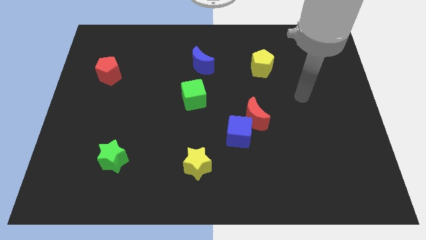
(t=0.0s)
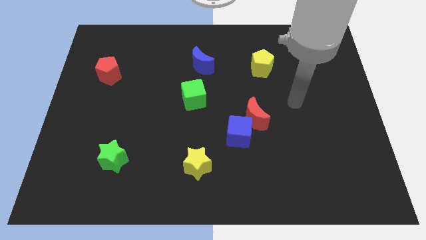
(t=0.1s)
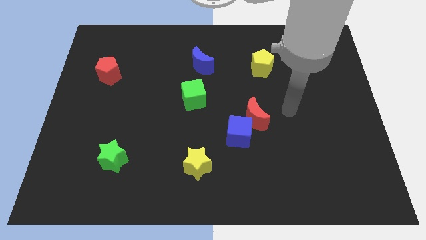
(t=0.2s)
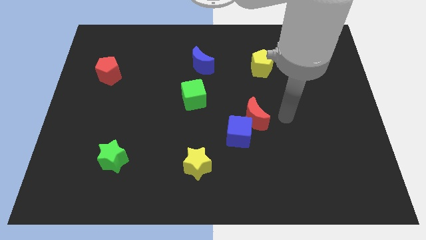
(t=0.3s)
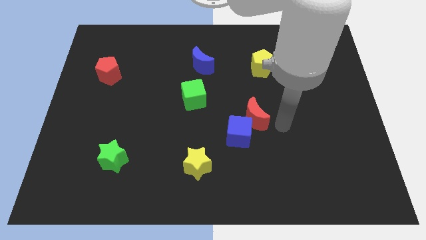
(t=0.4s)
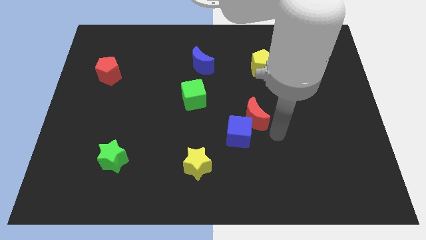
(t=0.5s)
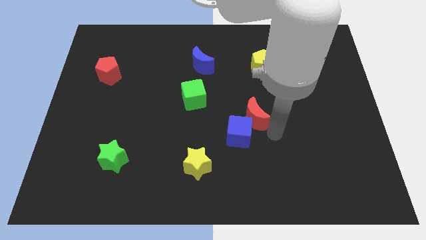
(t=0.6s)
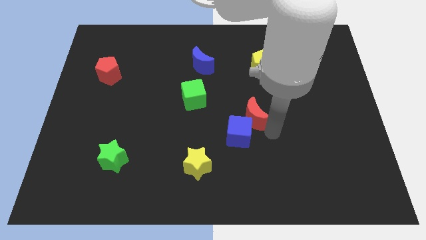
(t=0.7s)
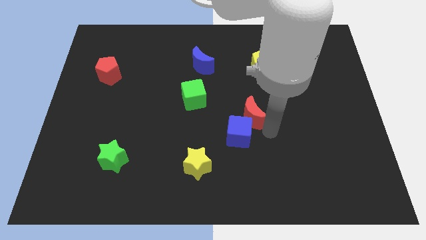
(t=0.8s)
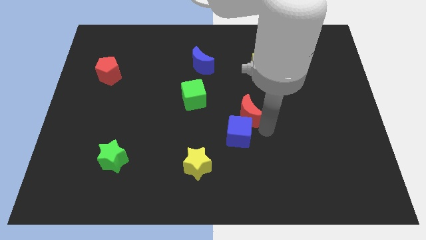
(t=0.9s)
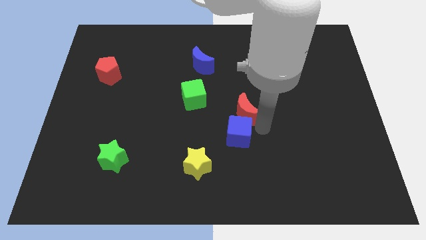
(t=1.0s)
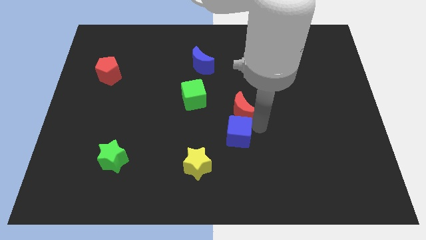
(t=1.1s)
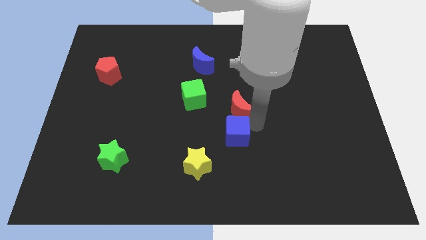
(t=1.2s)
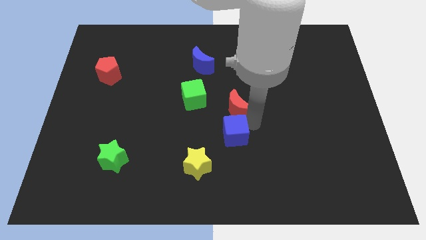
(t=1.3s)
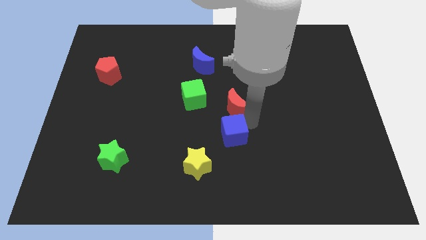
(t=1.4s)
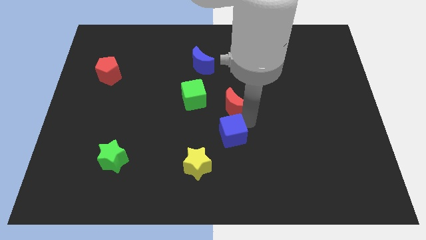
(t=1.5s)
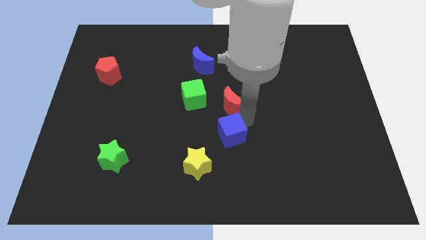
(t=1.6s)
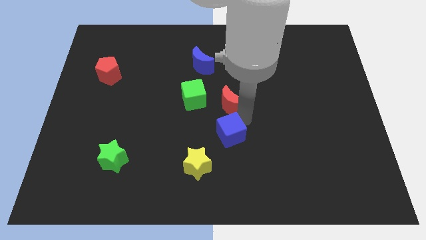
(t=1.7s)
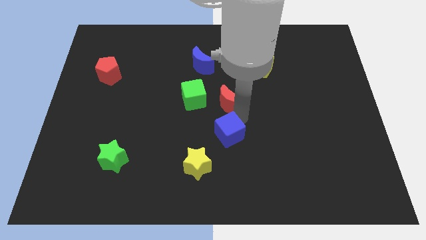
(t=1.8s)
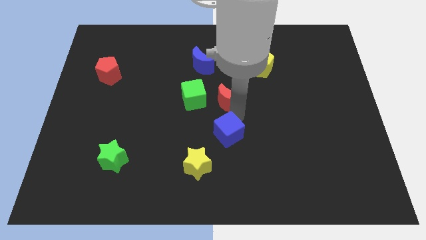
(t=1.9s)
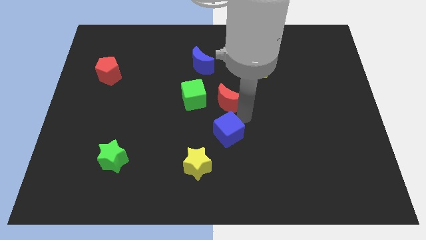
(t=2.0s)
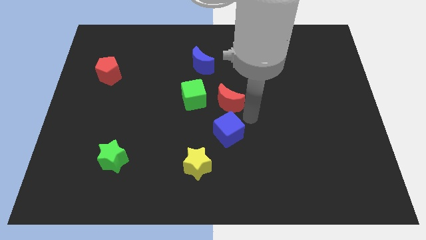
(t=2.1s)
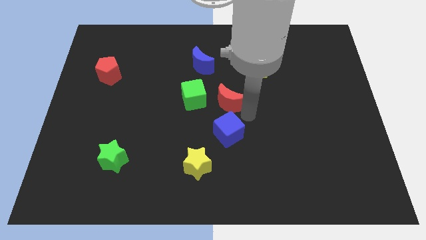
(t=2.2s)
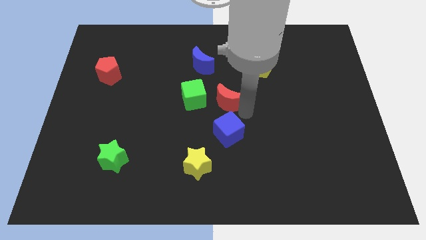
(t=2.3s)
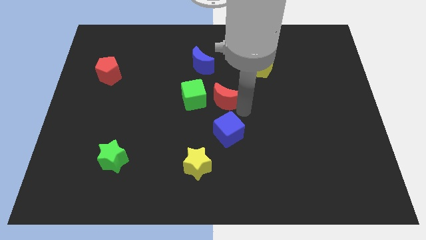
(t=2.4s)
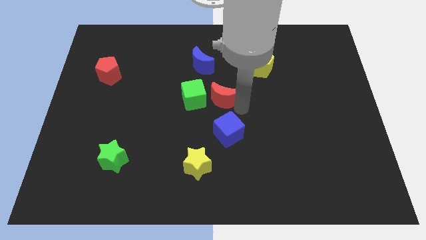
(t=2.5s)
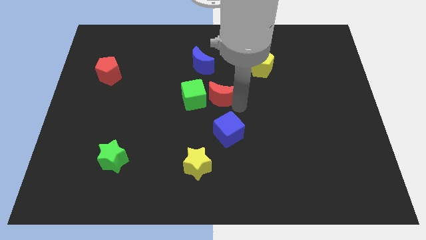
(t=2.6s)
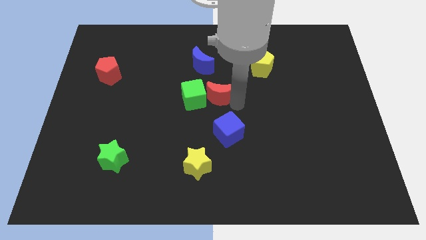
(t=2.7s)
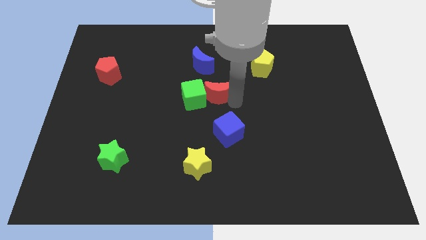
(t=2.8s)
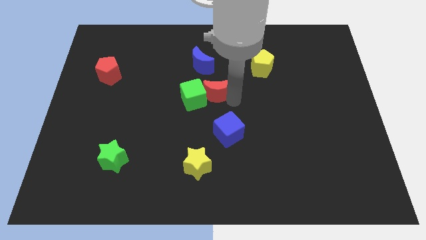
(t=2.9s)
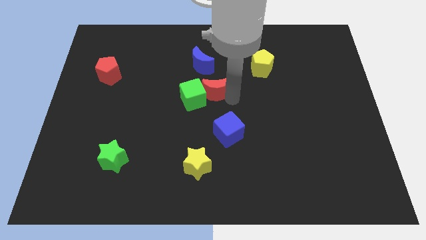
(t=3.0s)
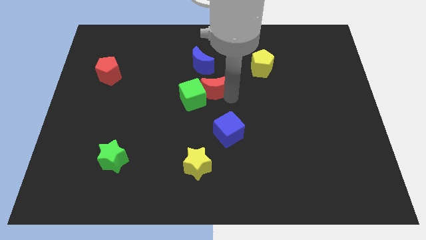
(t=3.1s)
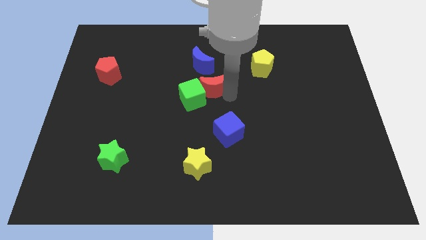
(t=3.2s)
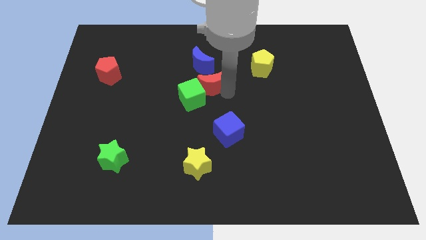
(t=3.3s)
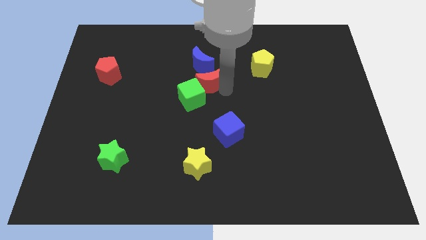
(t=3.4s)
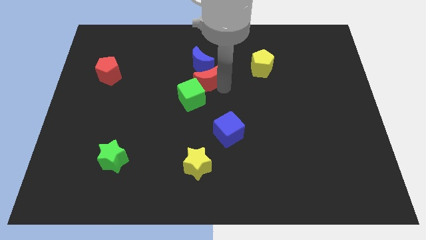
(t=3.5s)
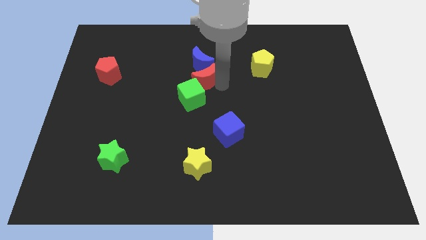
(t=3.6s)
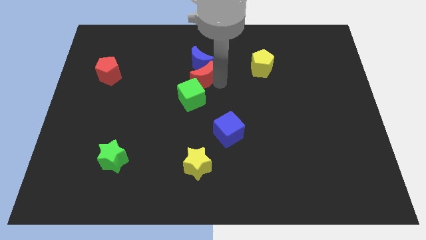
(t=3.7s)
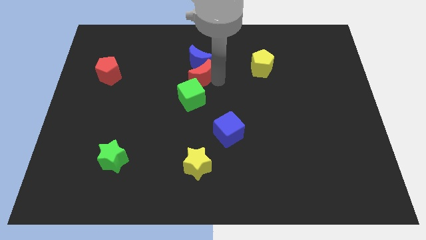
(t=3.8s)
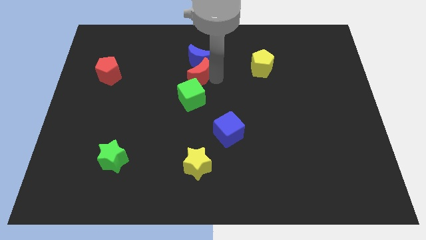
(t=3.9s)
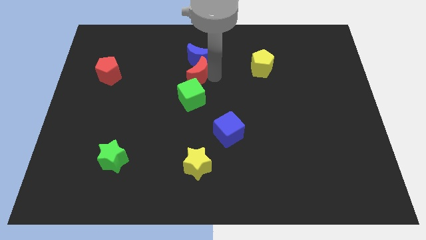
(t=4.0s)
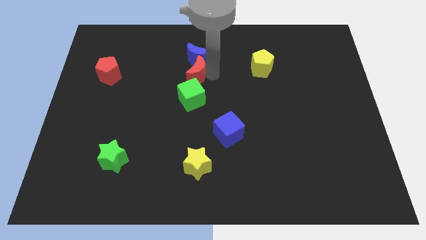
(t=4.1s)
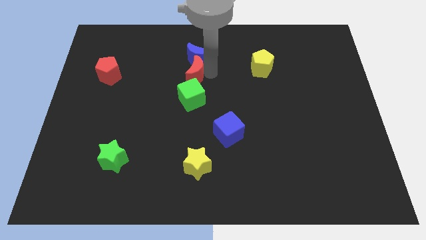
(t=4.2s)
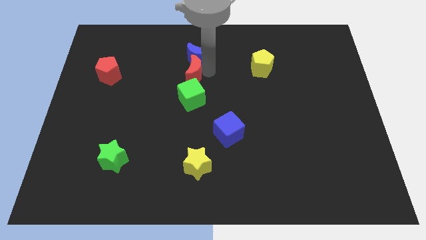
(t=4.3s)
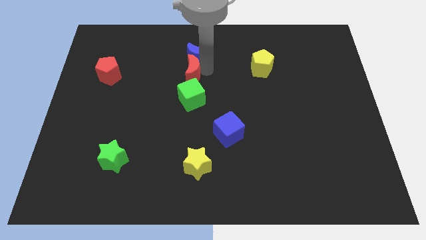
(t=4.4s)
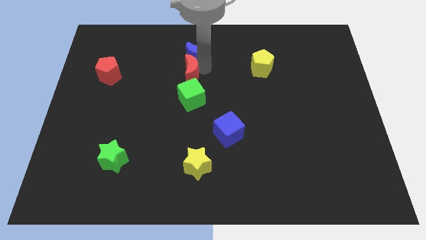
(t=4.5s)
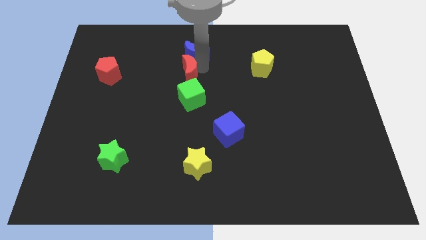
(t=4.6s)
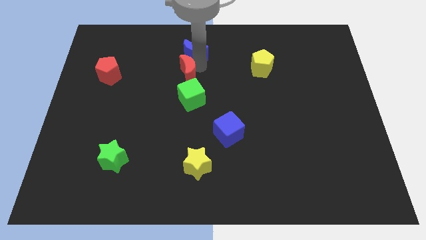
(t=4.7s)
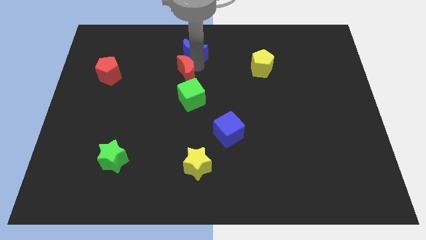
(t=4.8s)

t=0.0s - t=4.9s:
slide the red moon diagonally up and to the left of the green cube

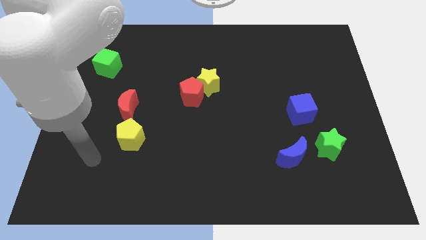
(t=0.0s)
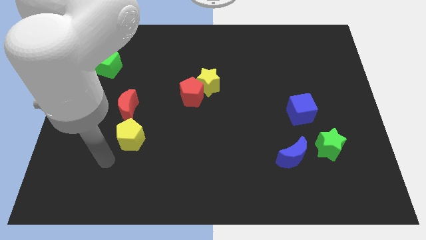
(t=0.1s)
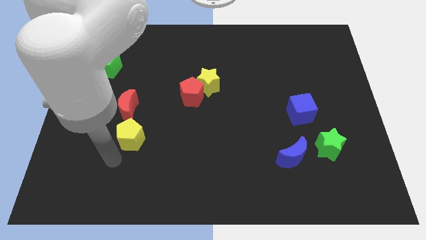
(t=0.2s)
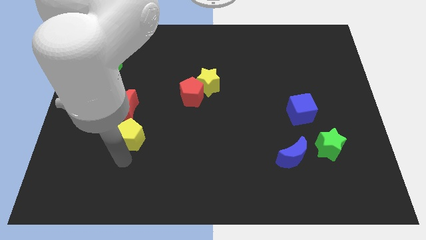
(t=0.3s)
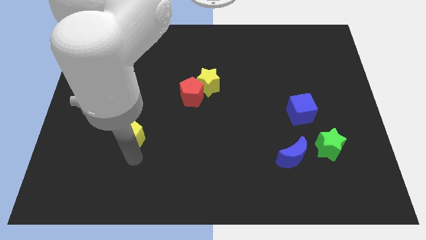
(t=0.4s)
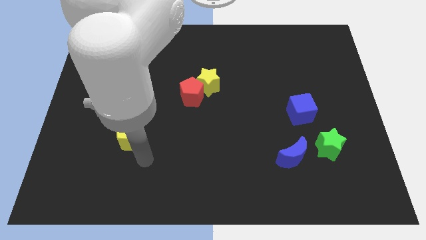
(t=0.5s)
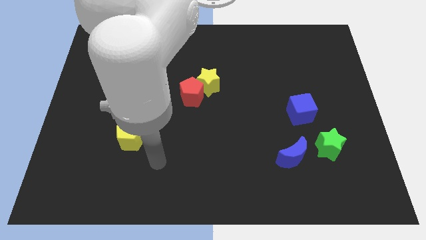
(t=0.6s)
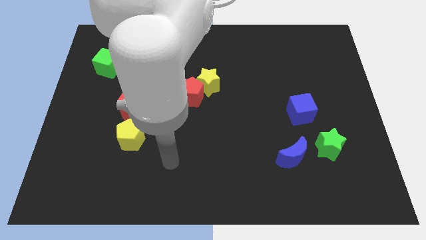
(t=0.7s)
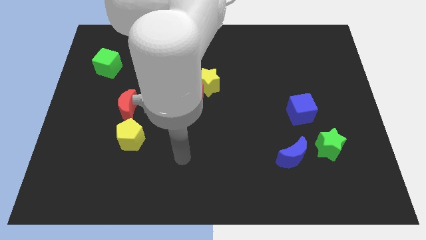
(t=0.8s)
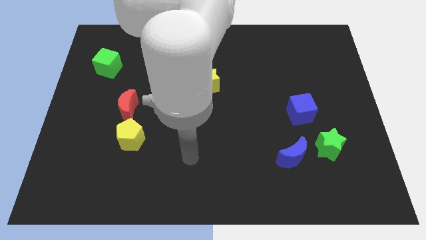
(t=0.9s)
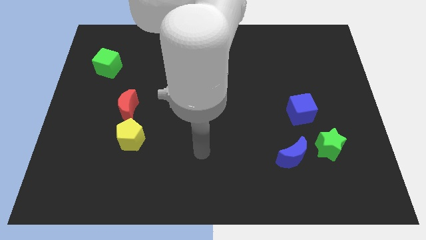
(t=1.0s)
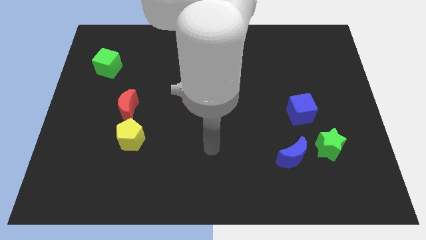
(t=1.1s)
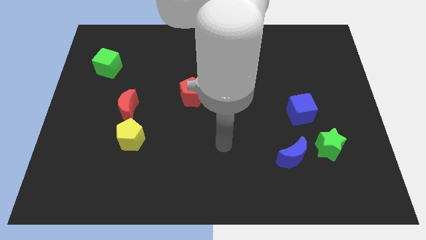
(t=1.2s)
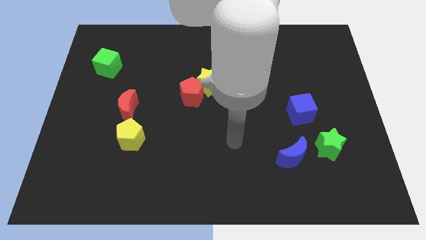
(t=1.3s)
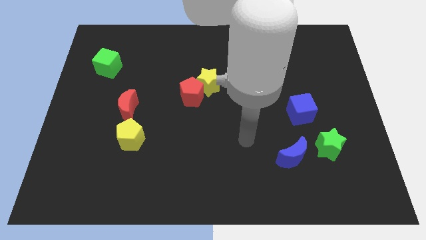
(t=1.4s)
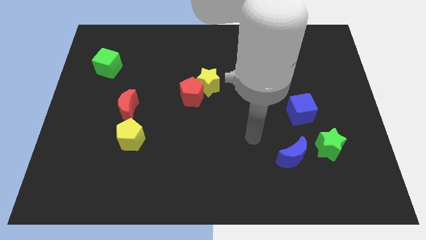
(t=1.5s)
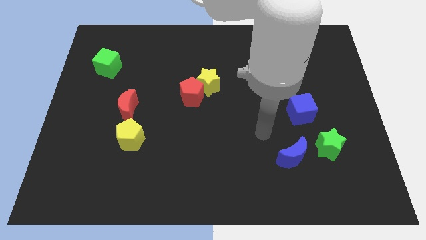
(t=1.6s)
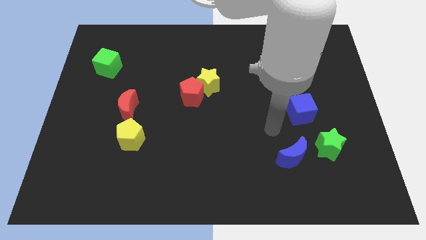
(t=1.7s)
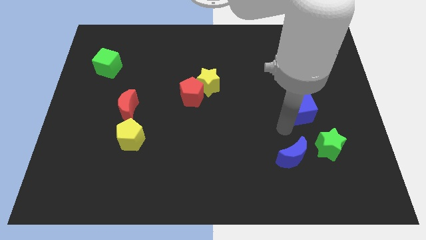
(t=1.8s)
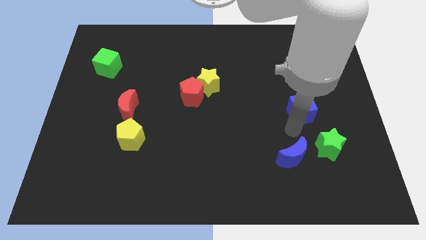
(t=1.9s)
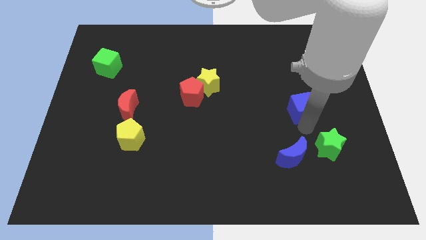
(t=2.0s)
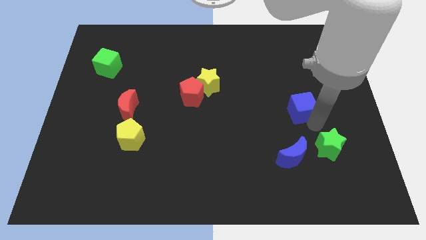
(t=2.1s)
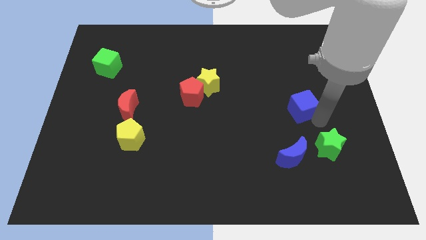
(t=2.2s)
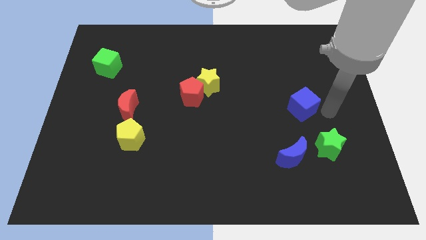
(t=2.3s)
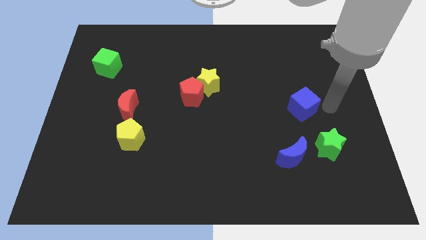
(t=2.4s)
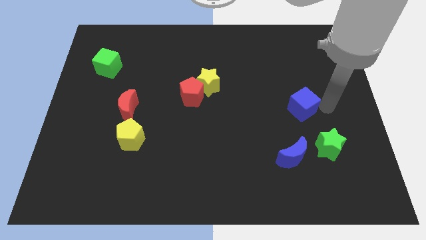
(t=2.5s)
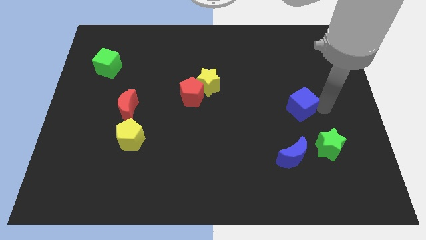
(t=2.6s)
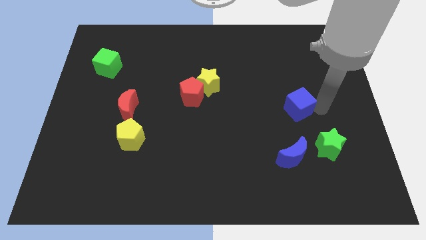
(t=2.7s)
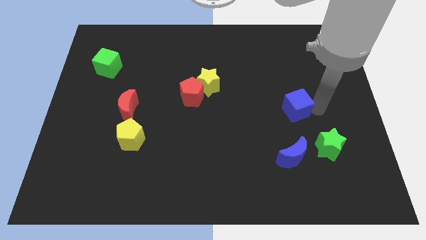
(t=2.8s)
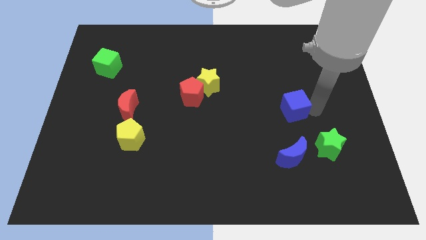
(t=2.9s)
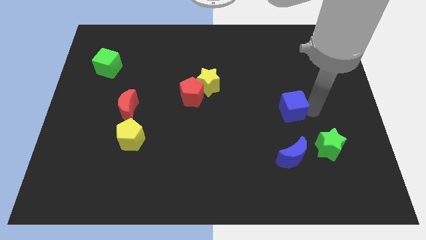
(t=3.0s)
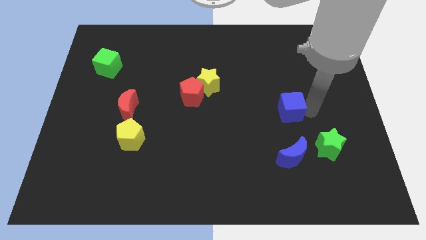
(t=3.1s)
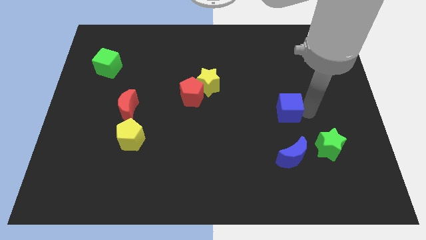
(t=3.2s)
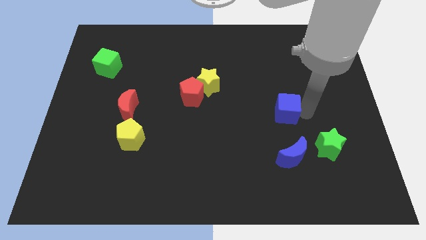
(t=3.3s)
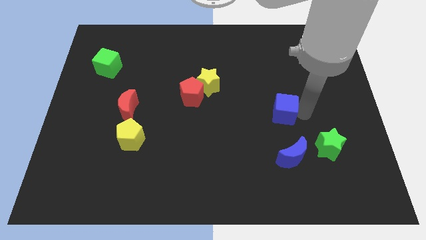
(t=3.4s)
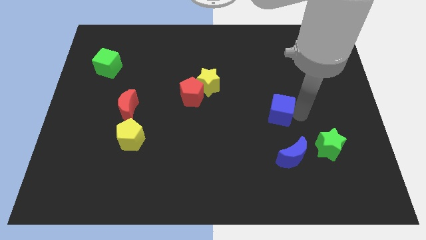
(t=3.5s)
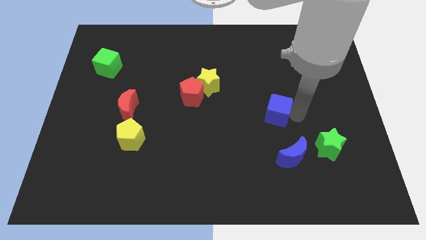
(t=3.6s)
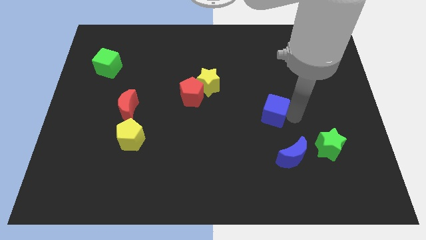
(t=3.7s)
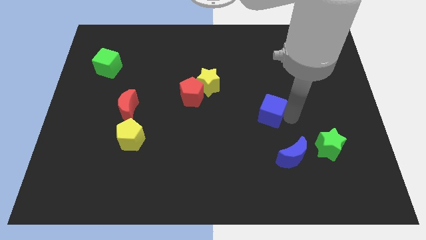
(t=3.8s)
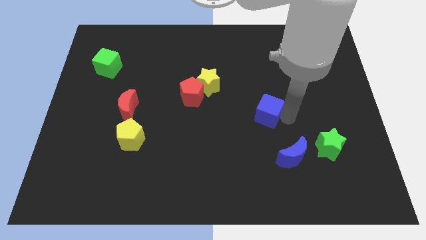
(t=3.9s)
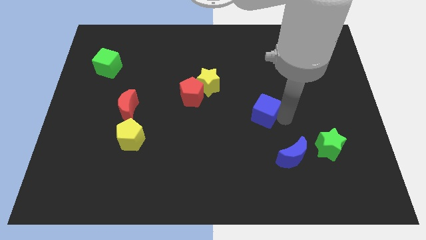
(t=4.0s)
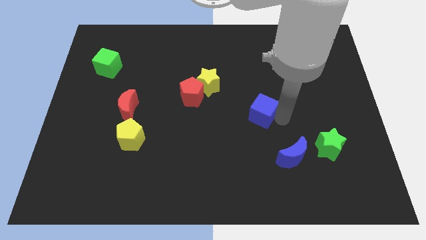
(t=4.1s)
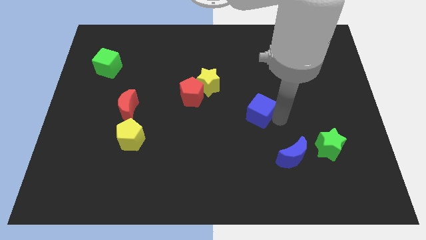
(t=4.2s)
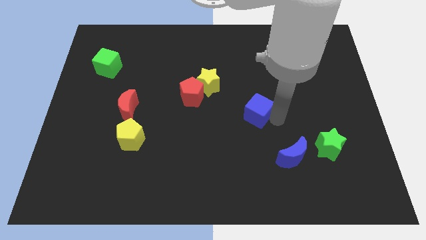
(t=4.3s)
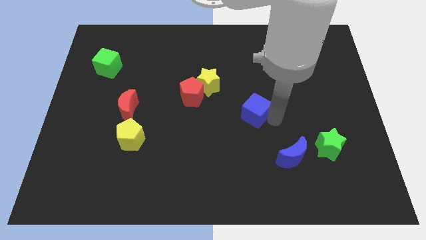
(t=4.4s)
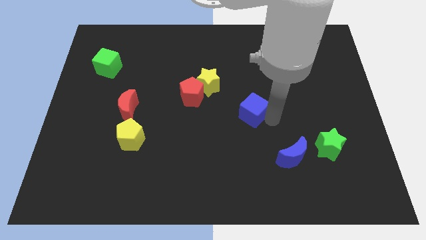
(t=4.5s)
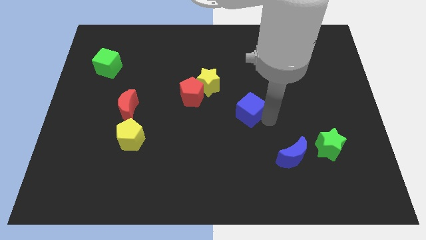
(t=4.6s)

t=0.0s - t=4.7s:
put the blue cube to the bottom right of the yellow star
